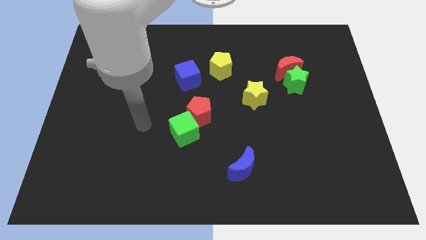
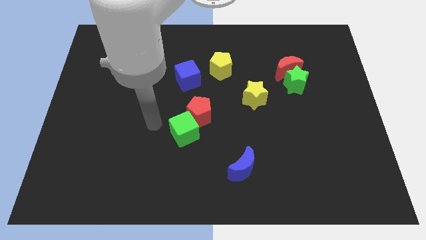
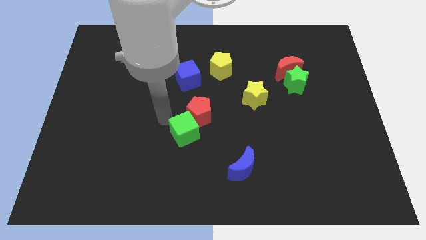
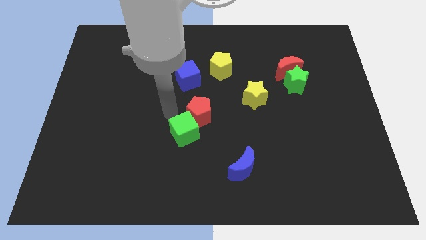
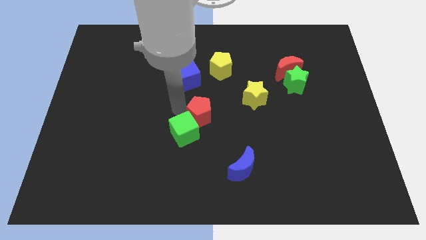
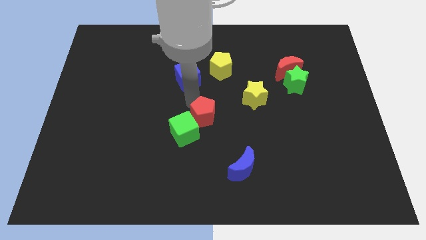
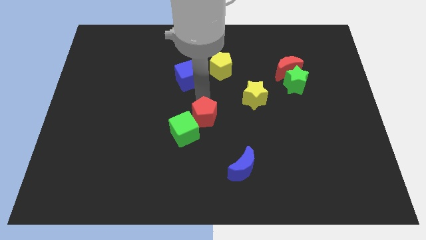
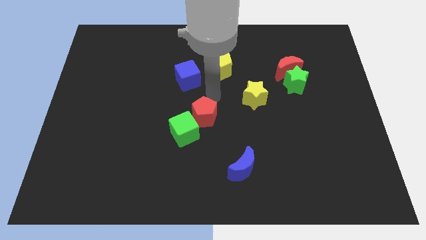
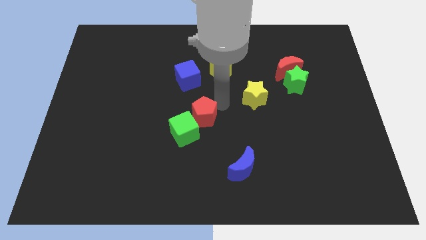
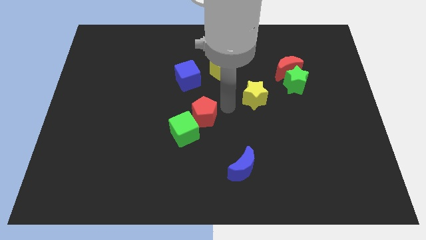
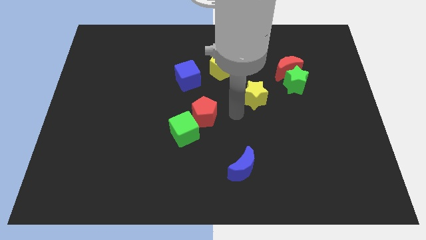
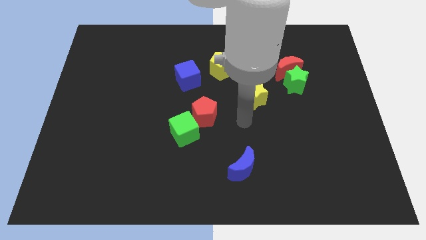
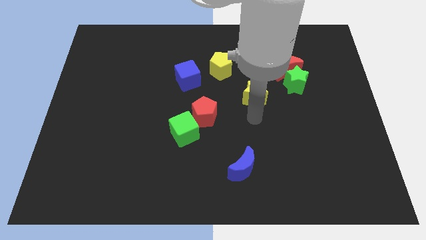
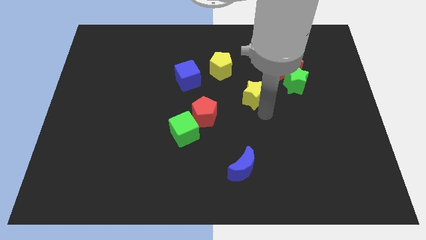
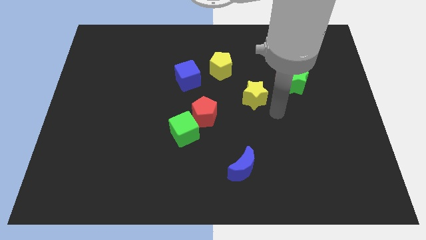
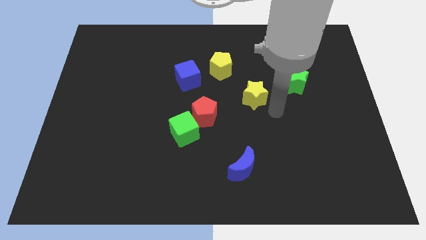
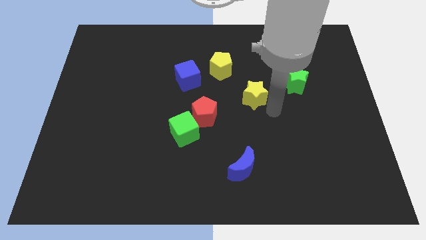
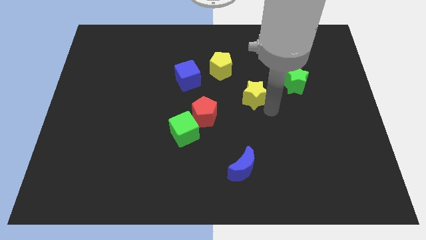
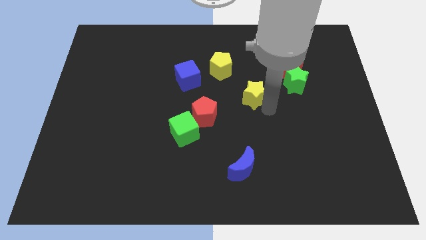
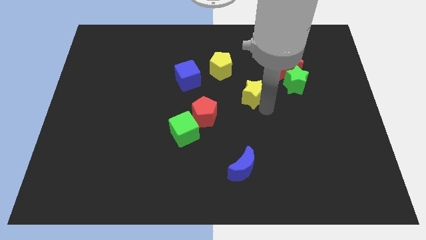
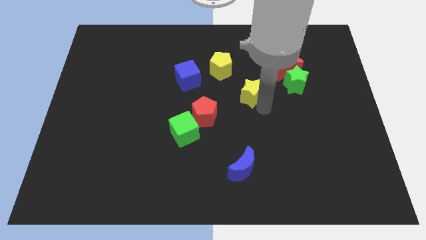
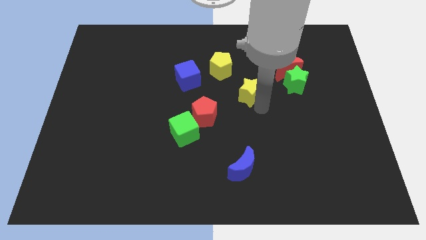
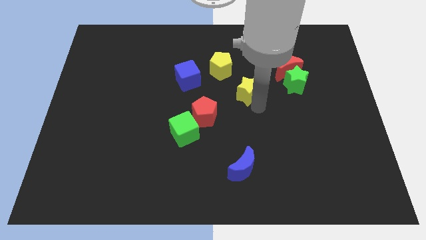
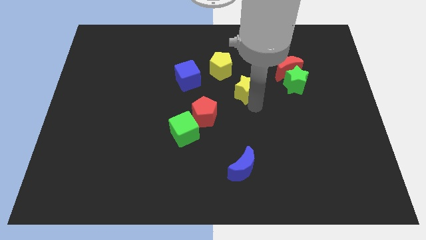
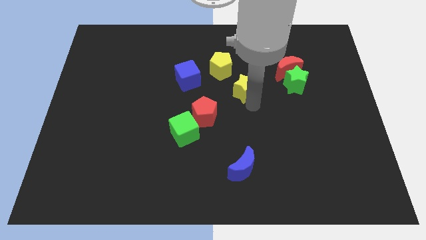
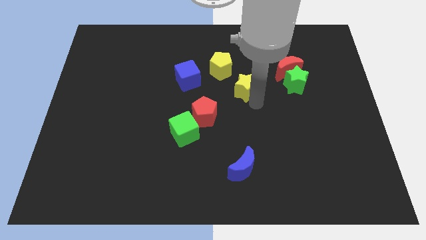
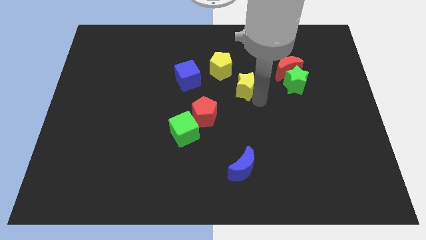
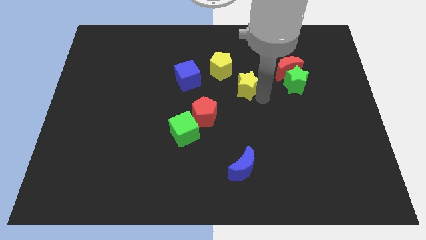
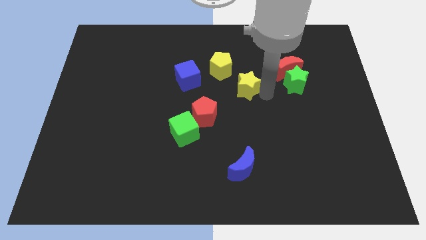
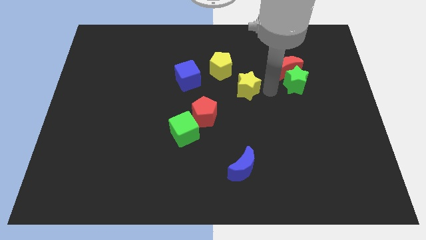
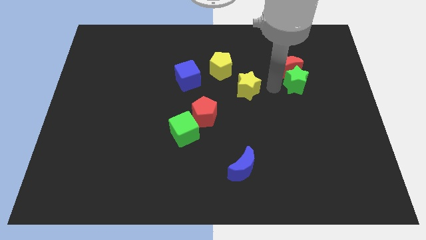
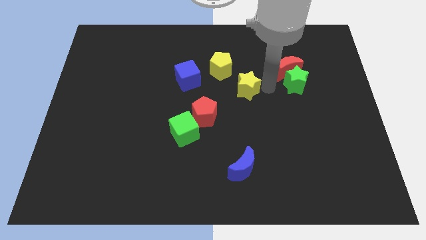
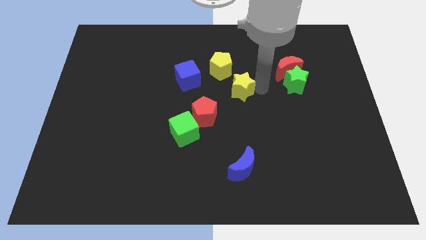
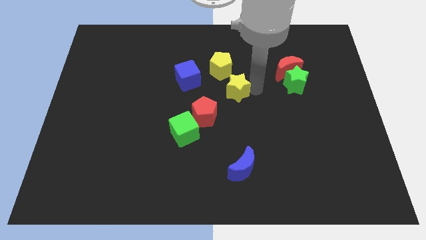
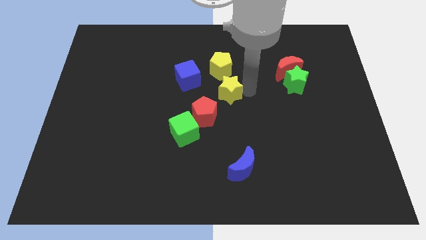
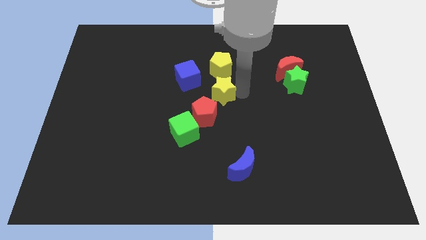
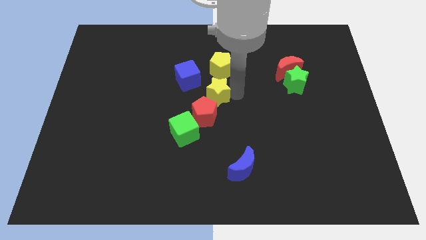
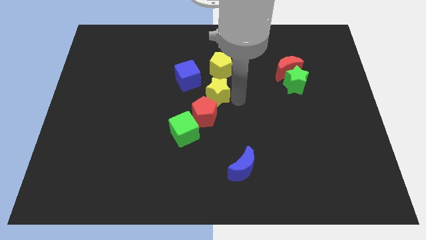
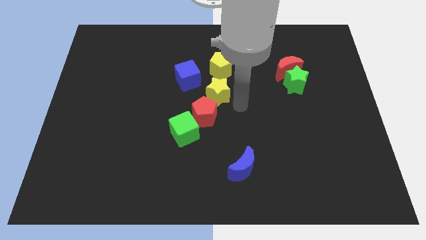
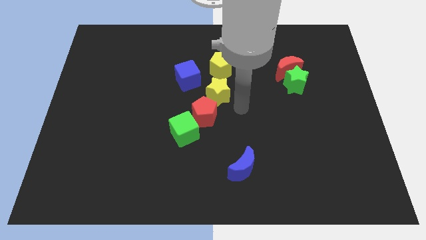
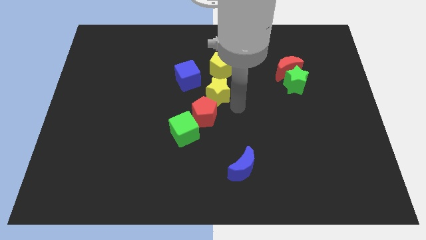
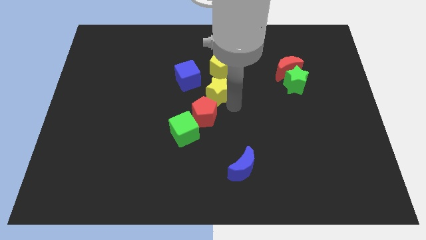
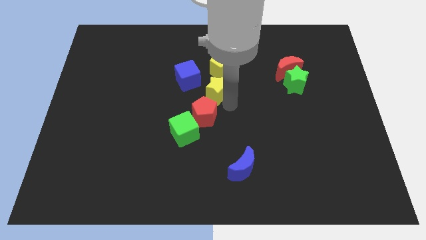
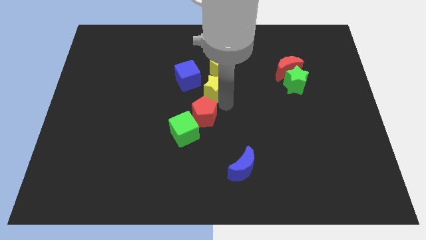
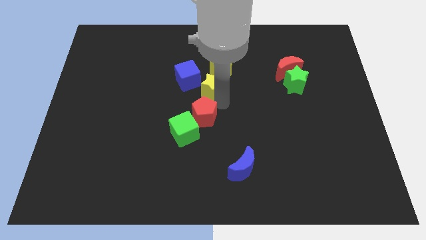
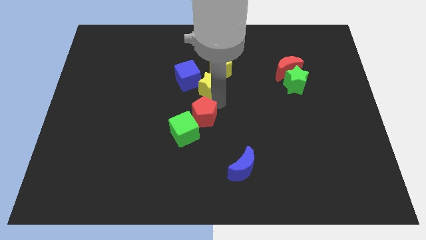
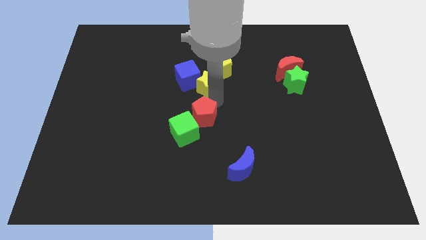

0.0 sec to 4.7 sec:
put the yellow star towards the blue cube

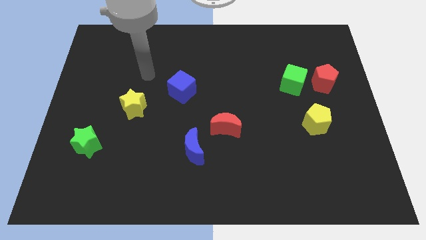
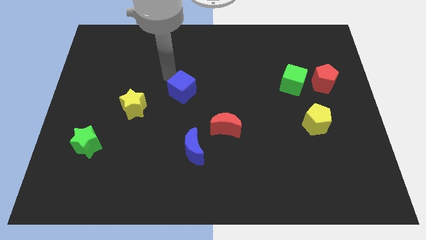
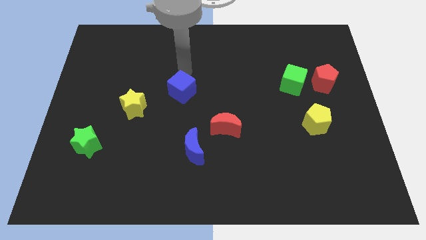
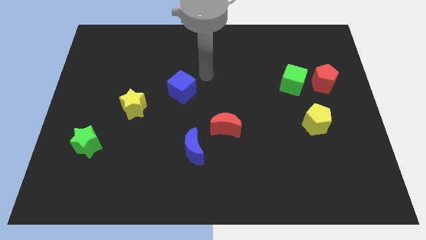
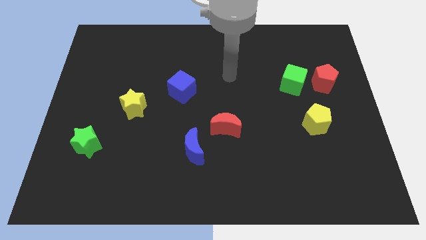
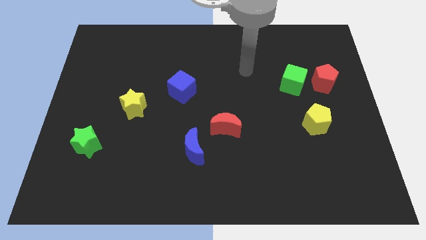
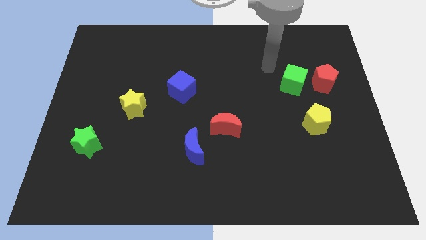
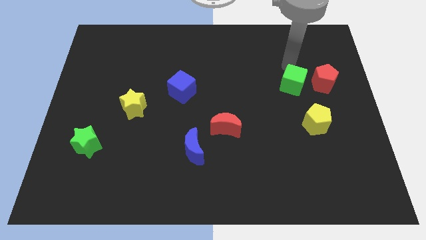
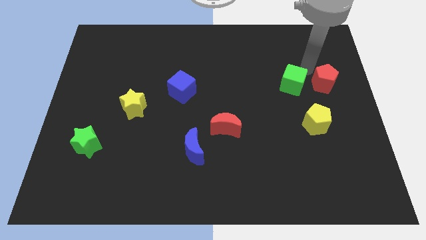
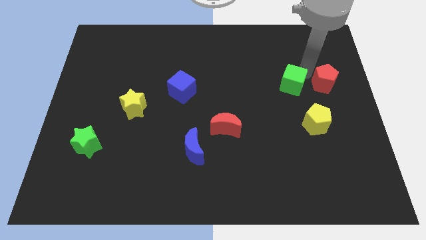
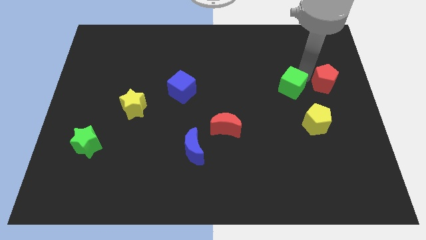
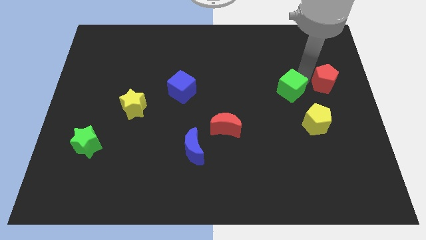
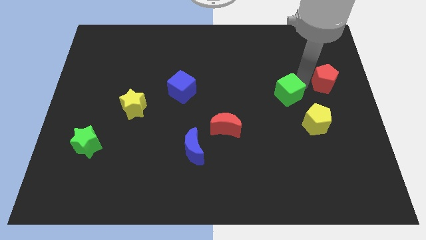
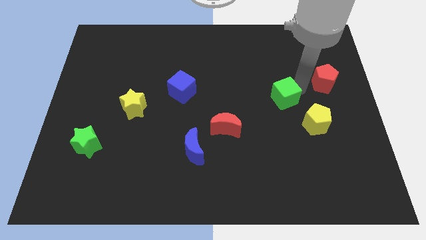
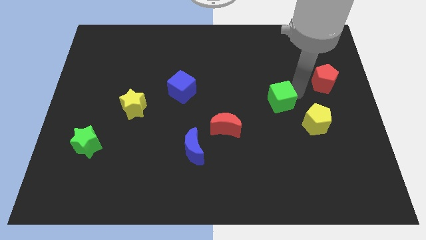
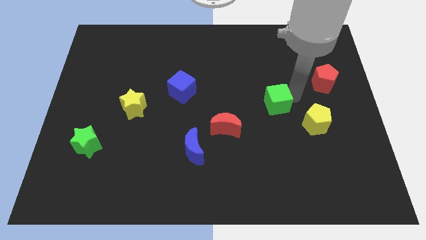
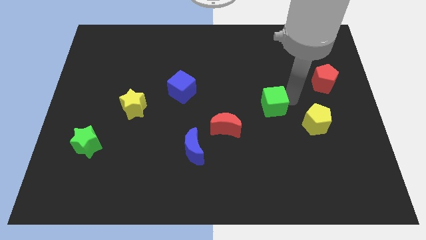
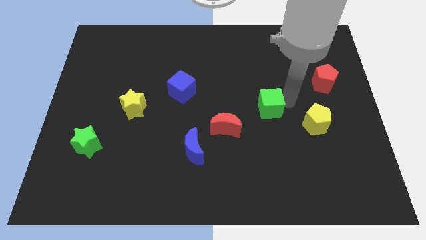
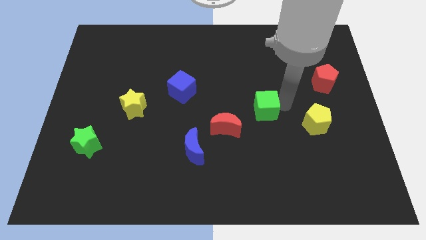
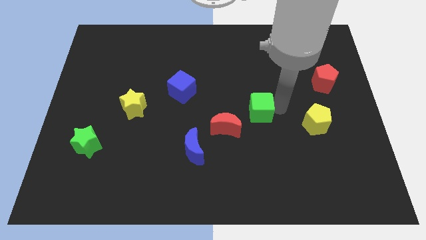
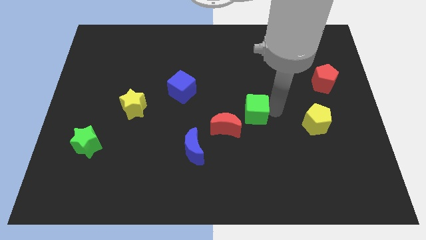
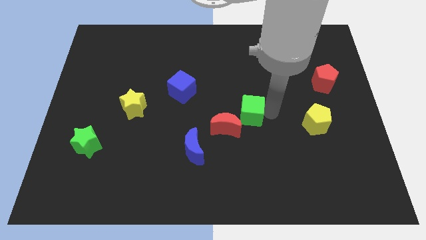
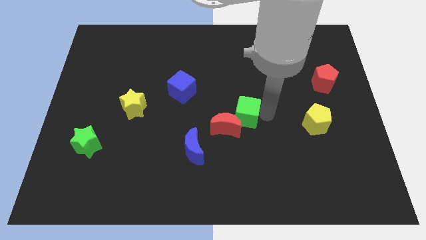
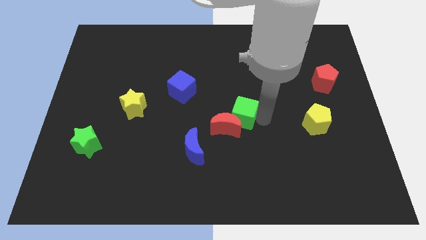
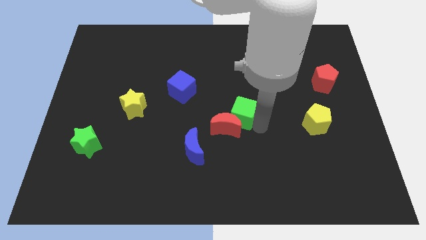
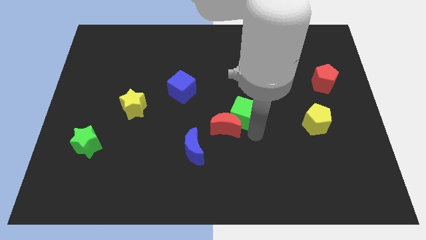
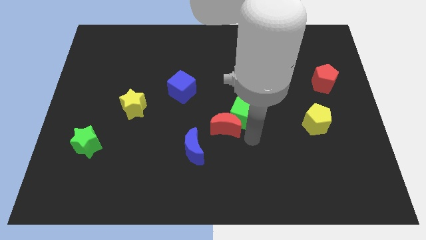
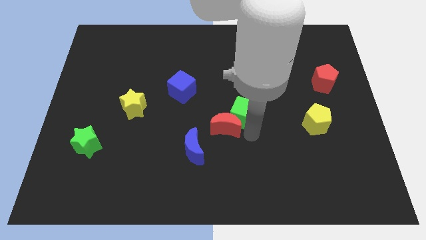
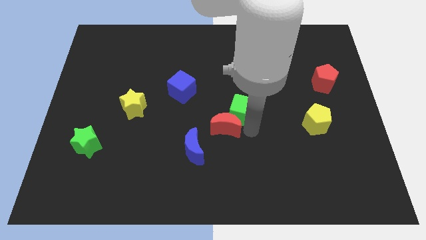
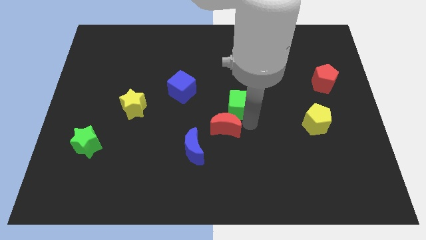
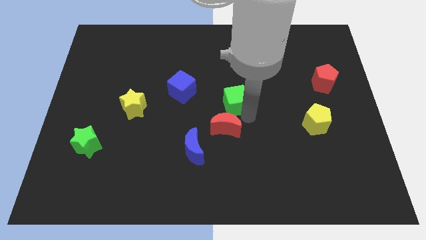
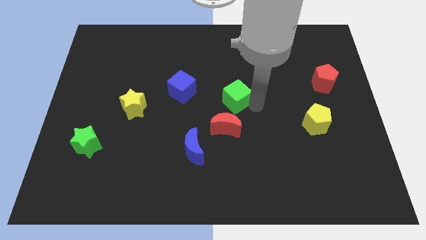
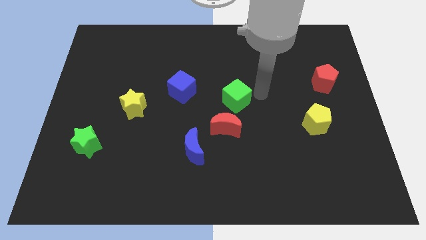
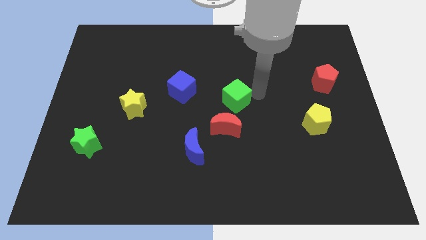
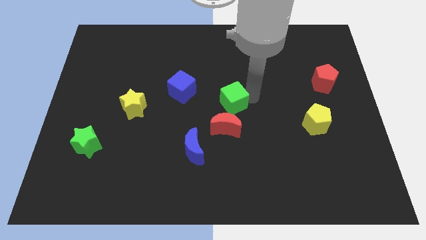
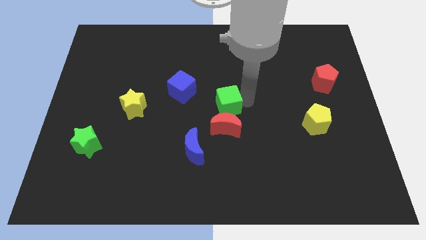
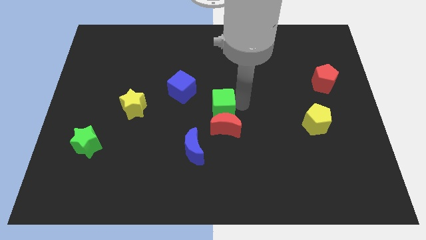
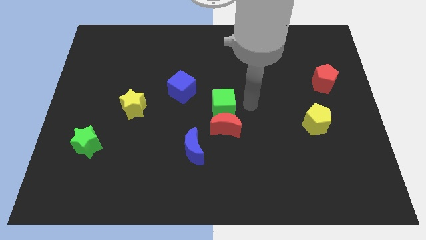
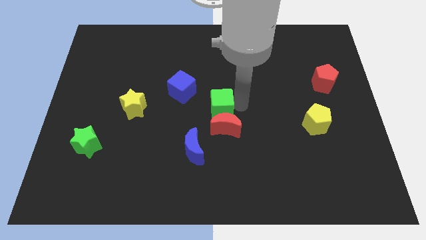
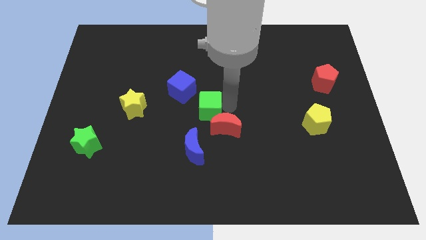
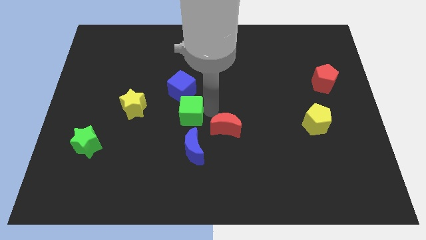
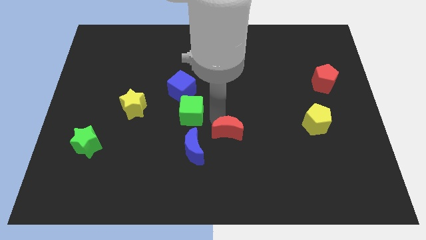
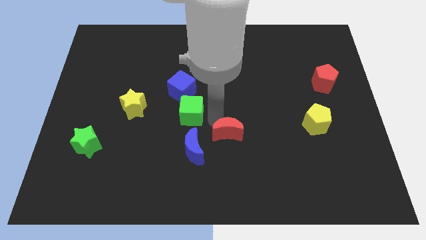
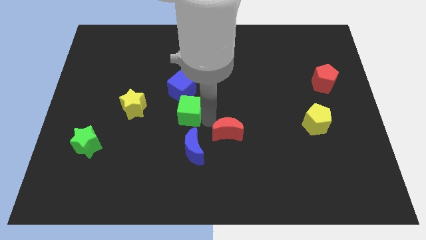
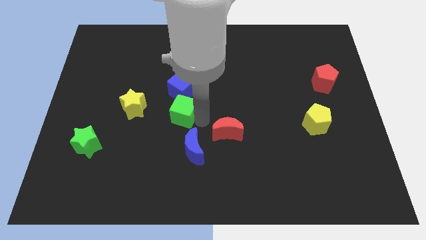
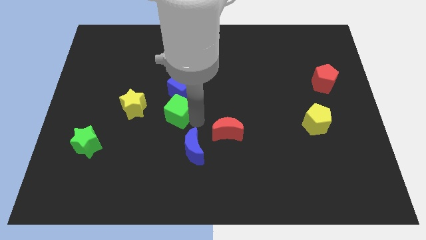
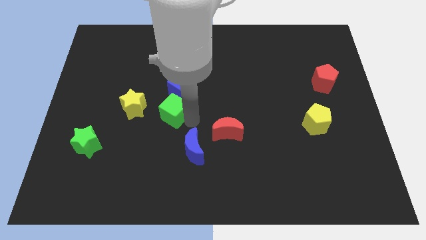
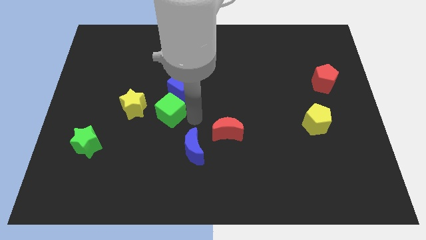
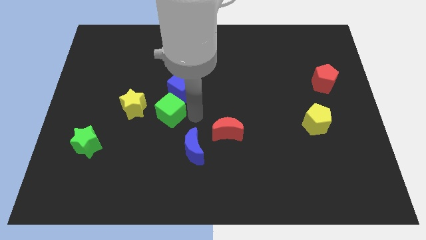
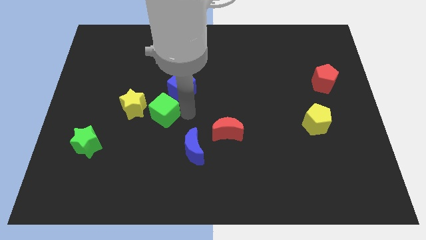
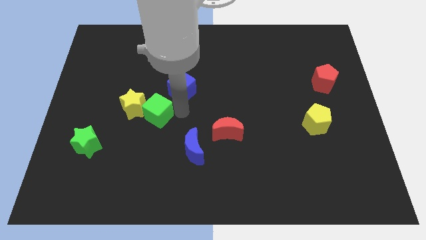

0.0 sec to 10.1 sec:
slide the green cube to the yellow star
